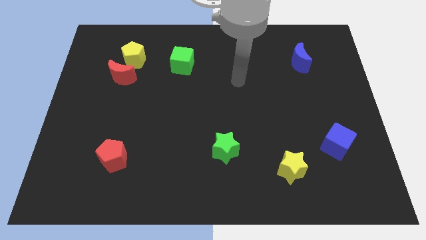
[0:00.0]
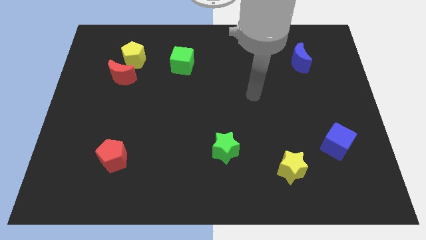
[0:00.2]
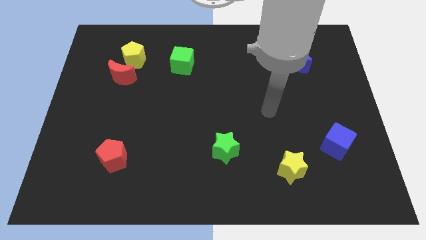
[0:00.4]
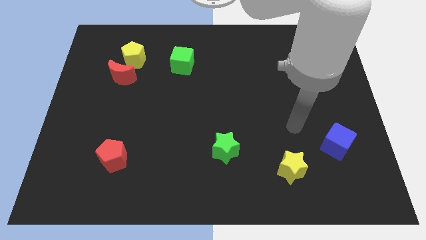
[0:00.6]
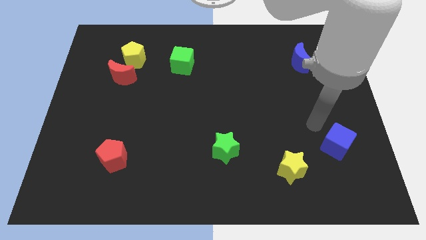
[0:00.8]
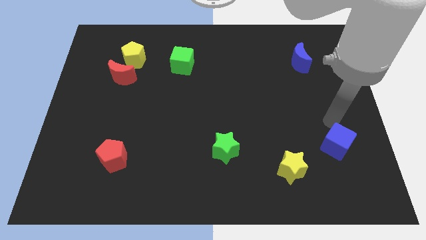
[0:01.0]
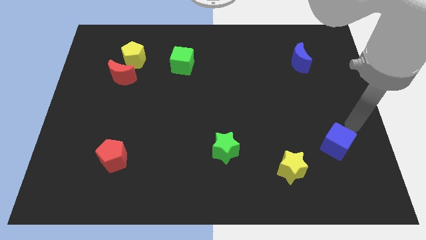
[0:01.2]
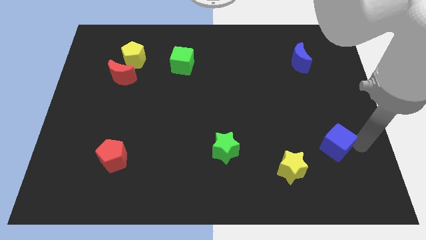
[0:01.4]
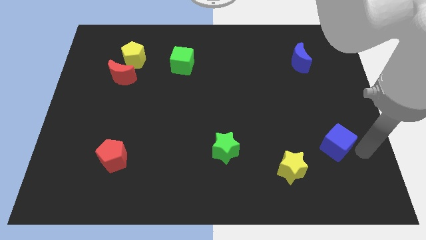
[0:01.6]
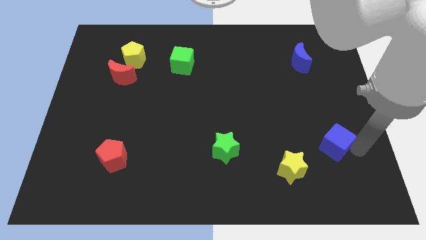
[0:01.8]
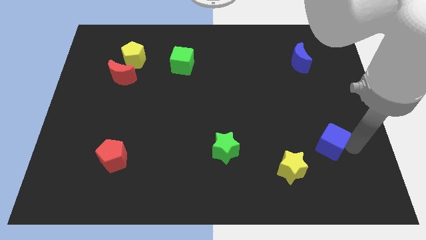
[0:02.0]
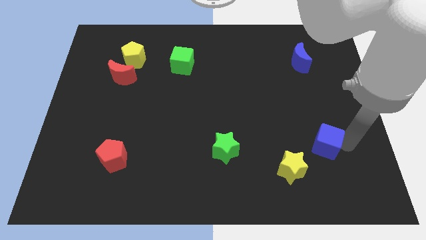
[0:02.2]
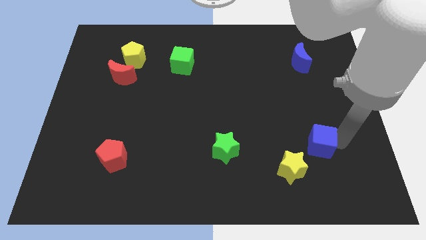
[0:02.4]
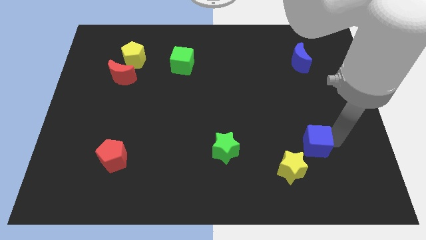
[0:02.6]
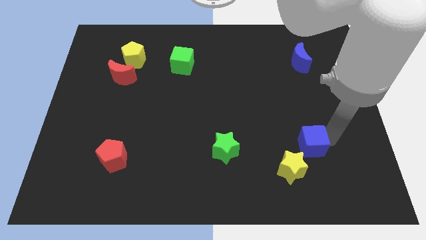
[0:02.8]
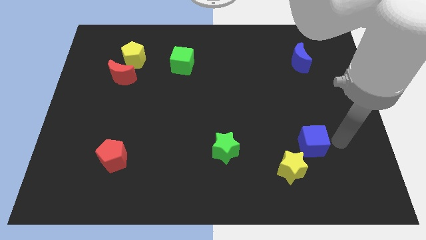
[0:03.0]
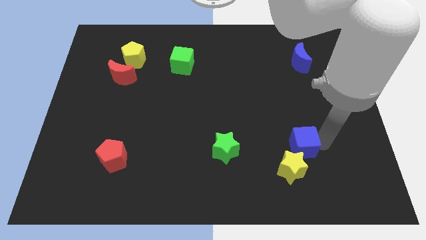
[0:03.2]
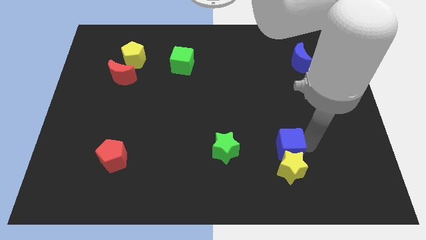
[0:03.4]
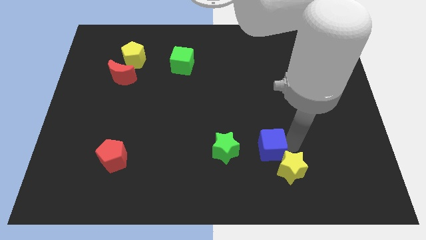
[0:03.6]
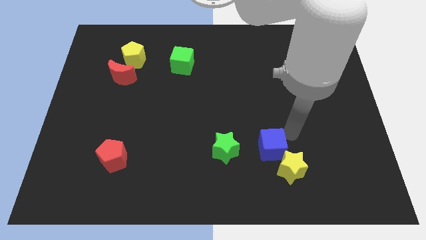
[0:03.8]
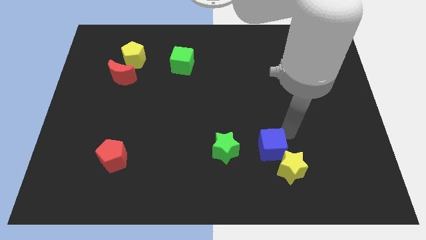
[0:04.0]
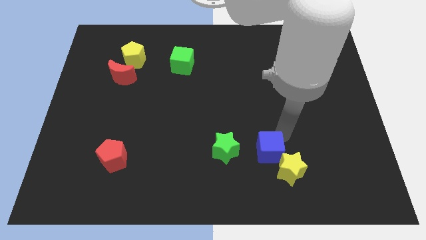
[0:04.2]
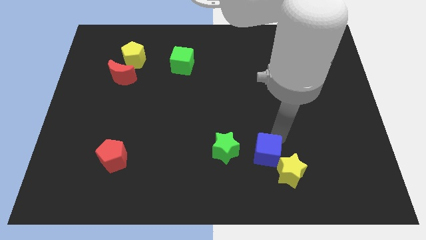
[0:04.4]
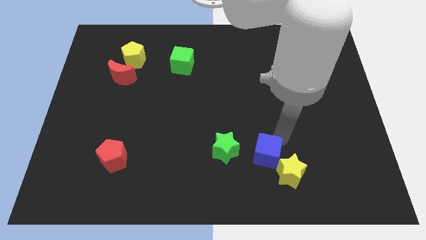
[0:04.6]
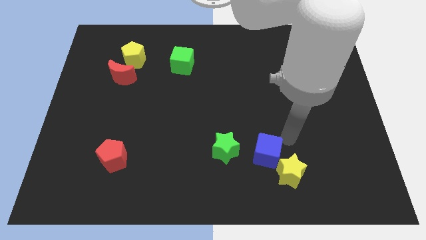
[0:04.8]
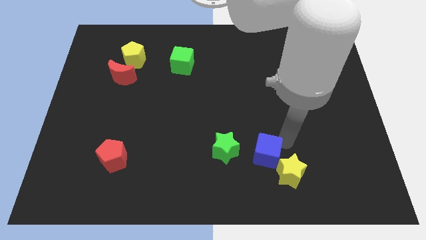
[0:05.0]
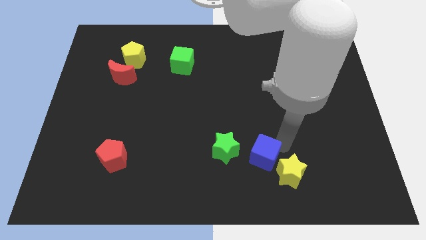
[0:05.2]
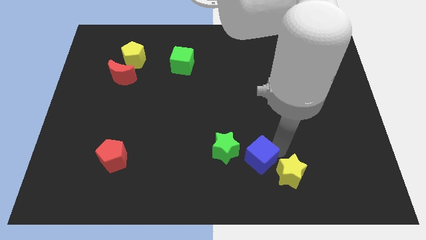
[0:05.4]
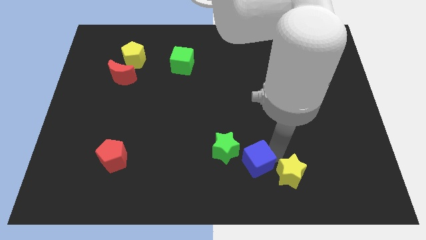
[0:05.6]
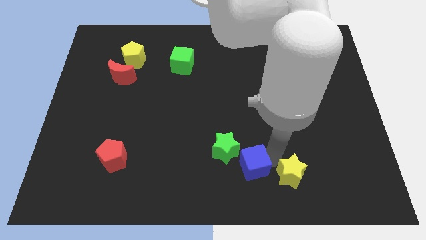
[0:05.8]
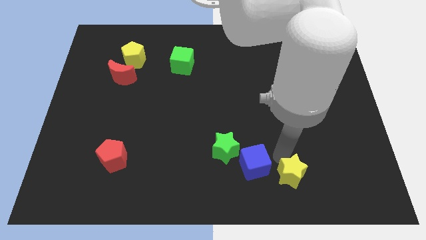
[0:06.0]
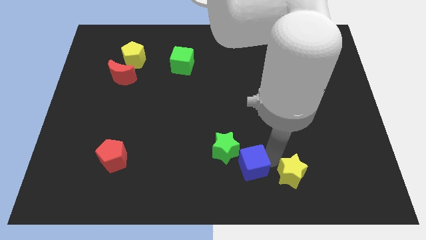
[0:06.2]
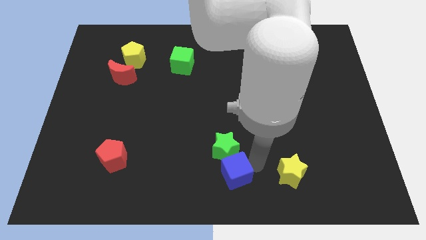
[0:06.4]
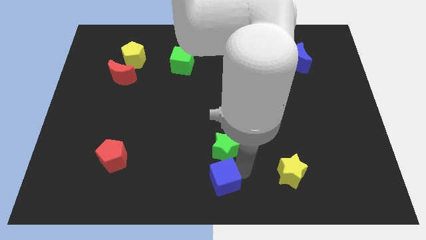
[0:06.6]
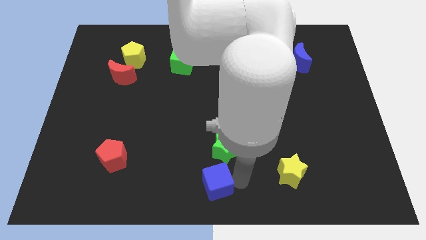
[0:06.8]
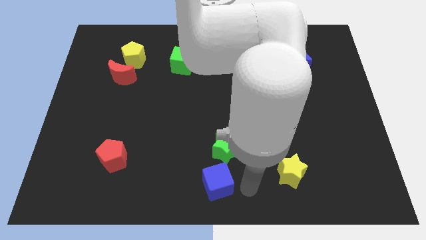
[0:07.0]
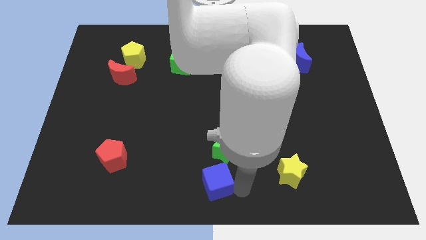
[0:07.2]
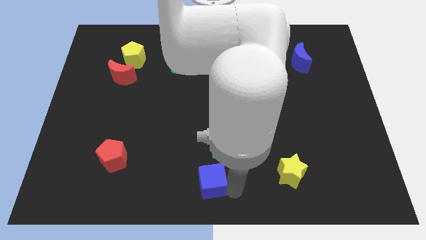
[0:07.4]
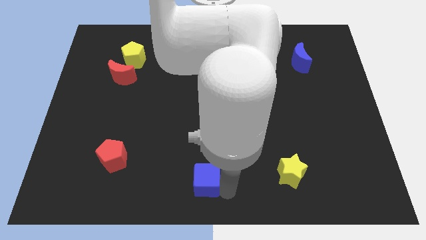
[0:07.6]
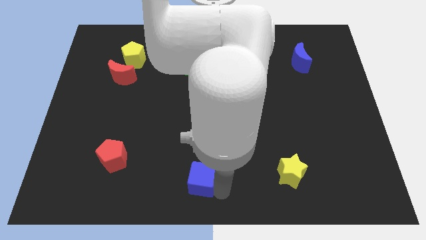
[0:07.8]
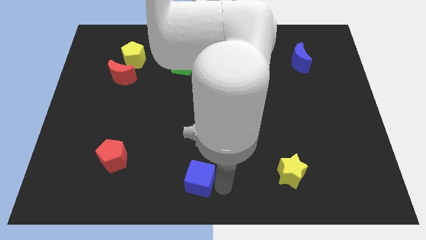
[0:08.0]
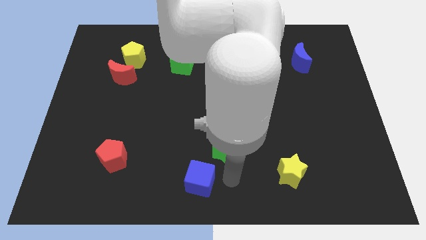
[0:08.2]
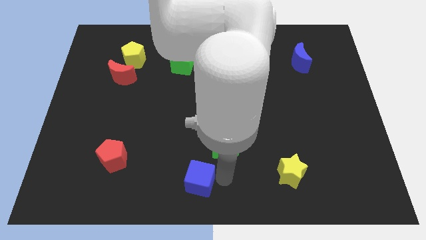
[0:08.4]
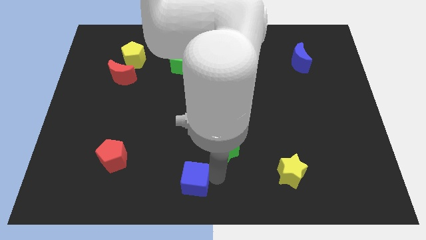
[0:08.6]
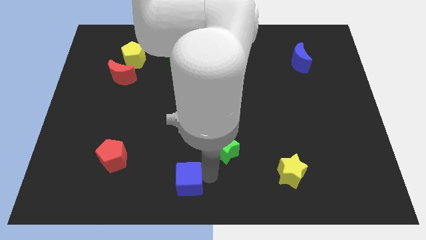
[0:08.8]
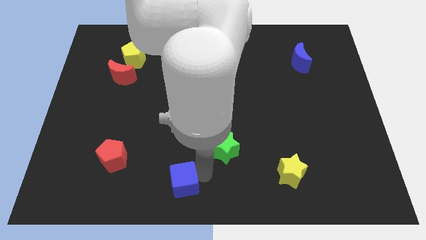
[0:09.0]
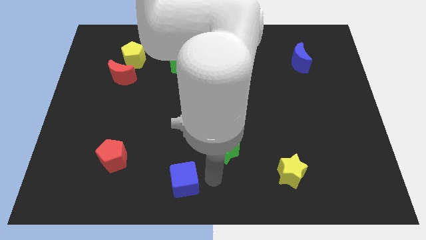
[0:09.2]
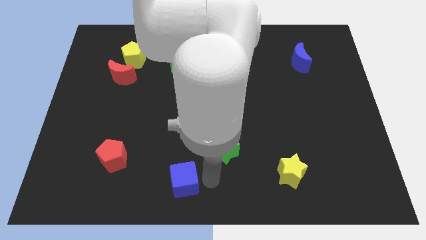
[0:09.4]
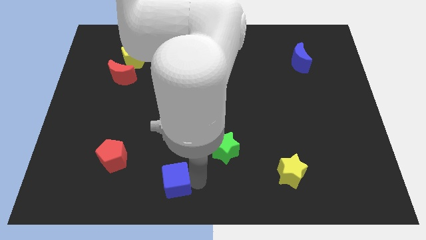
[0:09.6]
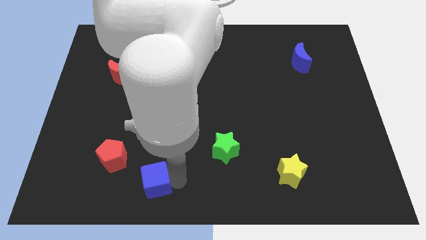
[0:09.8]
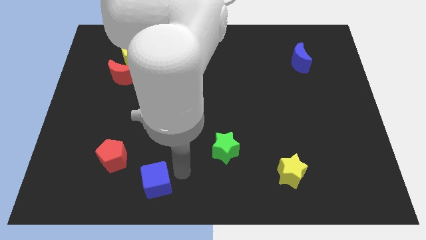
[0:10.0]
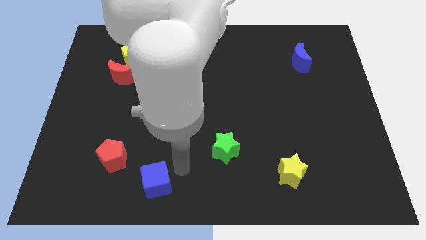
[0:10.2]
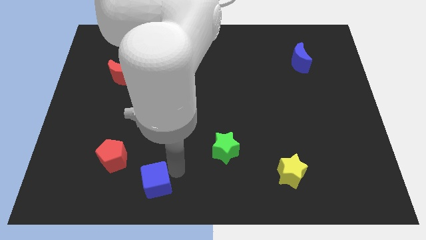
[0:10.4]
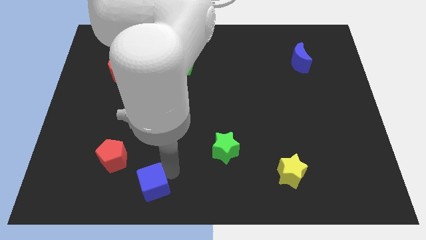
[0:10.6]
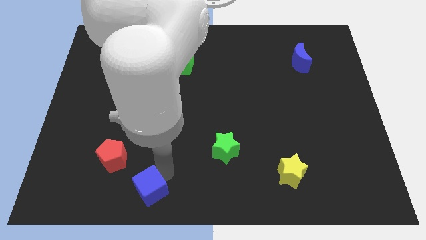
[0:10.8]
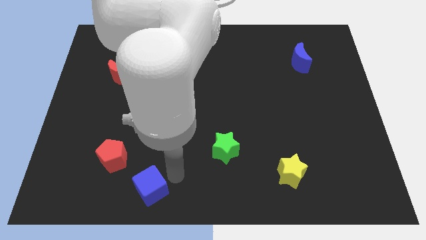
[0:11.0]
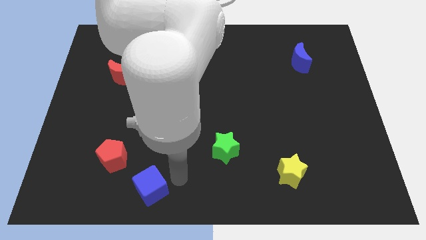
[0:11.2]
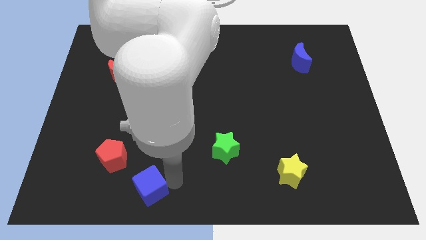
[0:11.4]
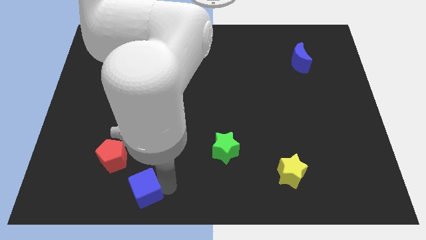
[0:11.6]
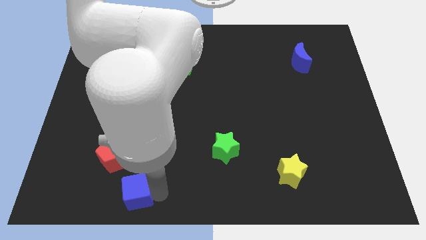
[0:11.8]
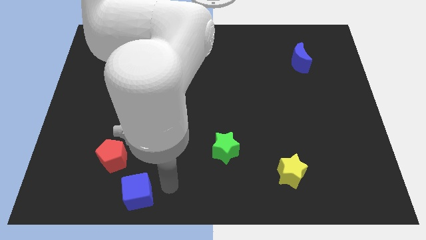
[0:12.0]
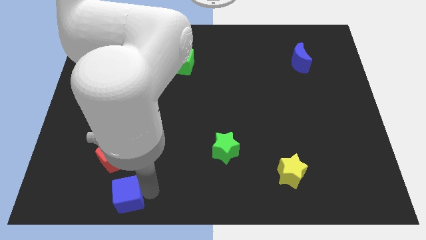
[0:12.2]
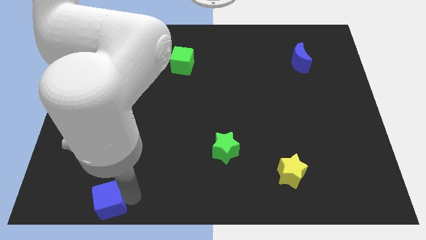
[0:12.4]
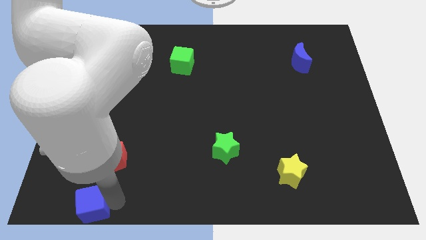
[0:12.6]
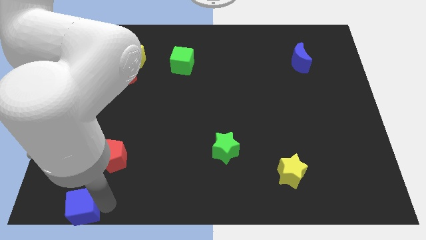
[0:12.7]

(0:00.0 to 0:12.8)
put the blue cube to the lower left corner
